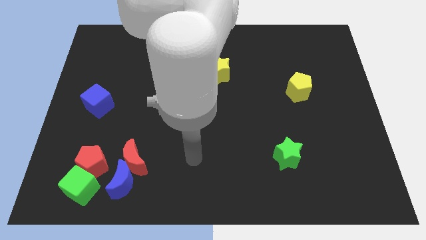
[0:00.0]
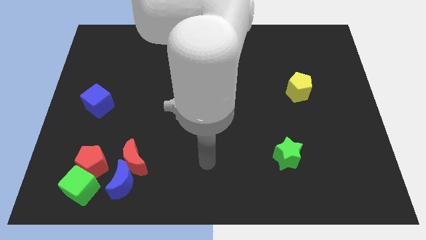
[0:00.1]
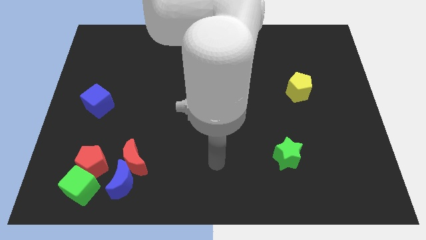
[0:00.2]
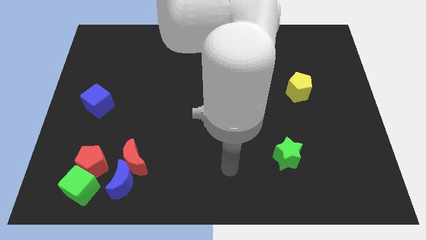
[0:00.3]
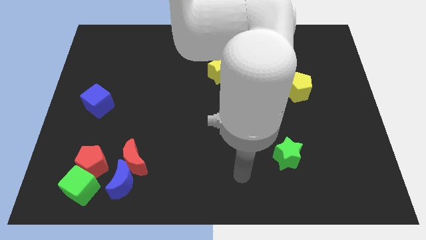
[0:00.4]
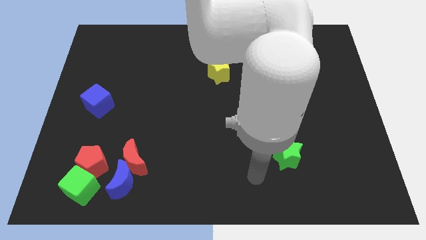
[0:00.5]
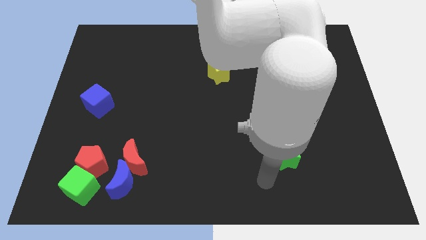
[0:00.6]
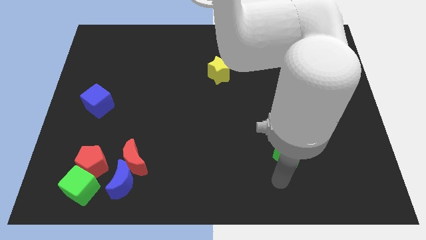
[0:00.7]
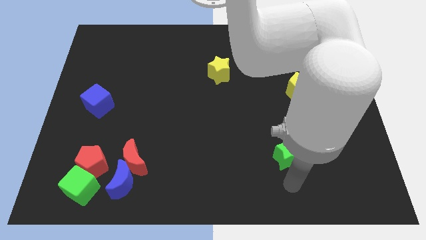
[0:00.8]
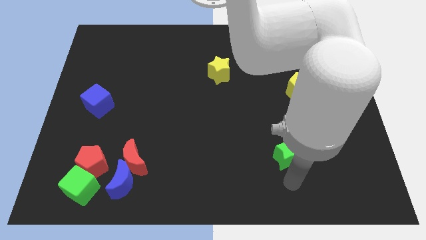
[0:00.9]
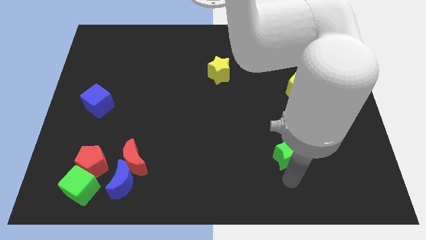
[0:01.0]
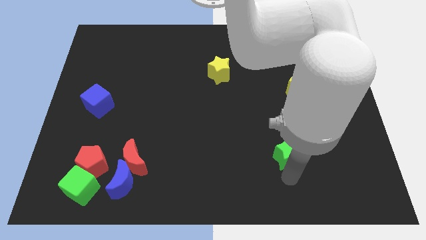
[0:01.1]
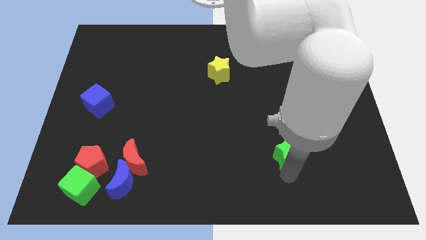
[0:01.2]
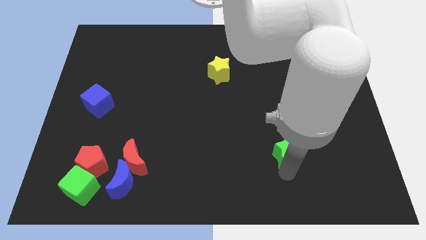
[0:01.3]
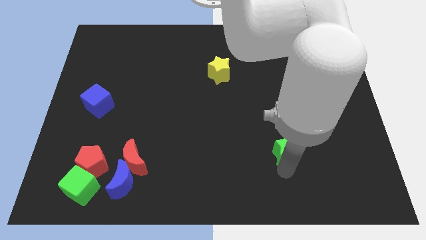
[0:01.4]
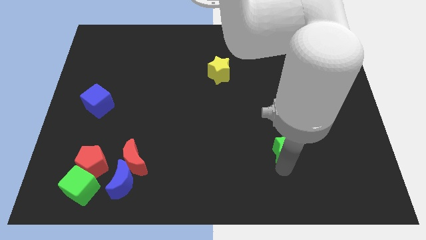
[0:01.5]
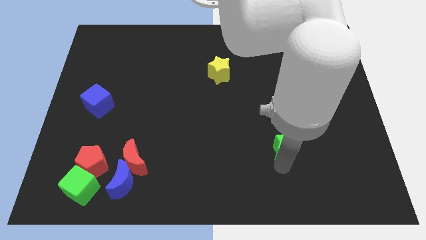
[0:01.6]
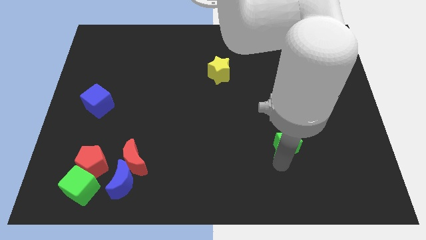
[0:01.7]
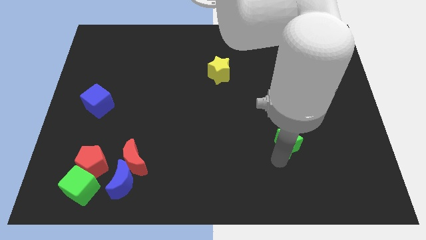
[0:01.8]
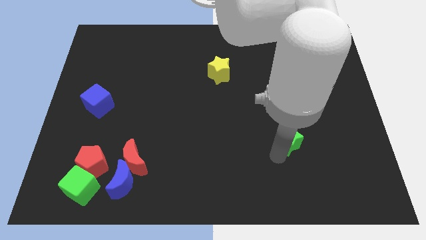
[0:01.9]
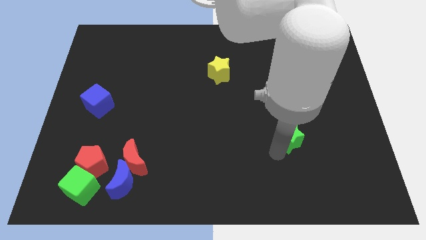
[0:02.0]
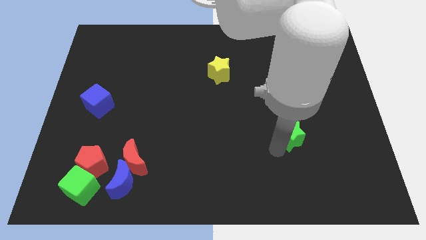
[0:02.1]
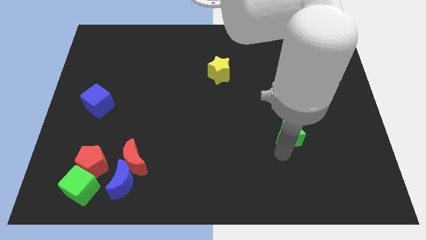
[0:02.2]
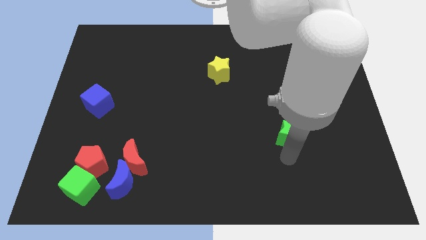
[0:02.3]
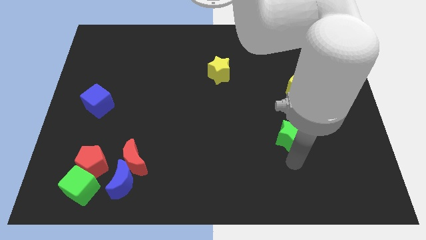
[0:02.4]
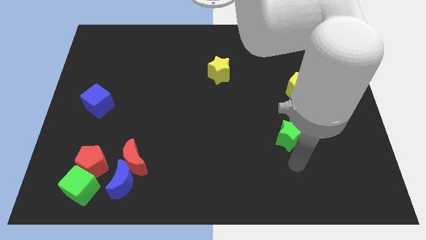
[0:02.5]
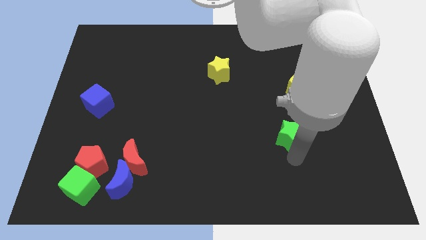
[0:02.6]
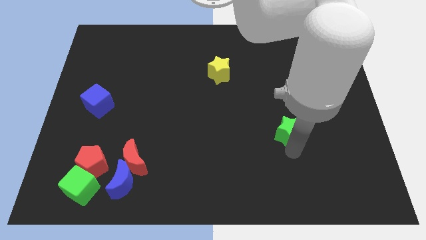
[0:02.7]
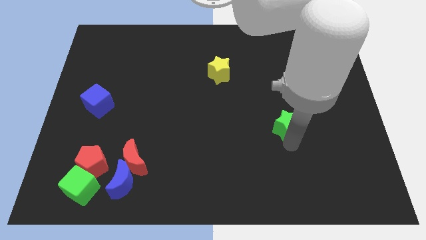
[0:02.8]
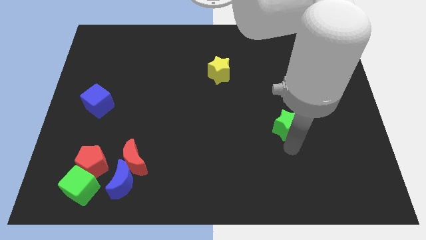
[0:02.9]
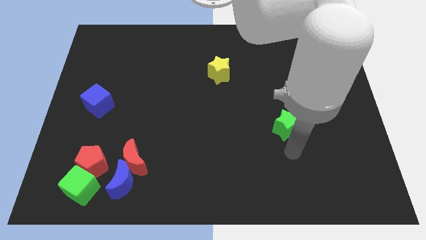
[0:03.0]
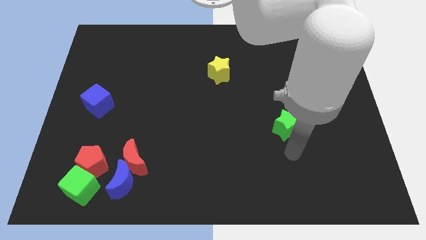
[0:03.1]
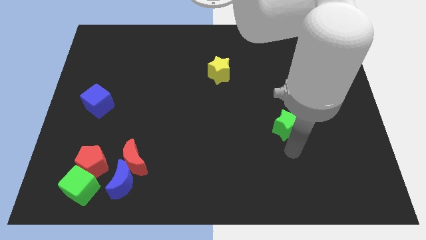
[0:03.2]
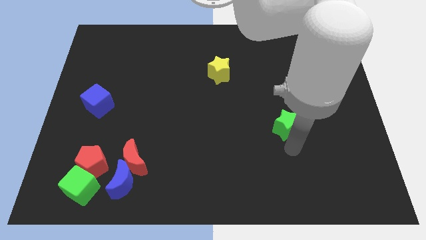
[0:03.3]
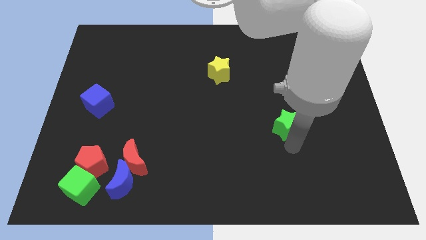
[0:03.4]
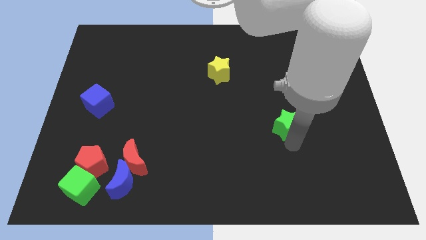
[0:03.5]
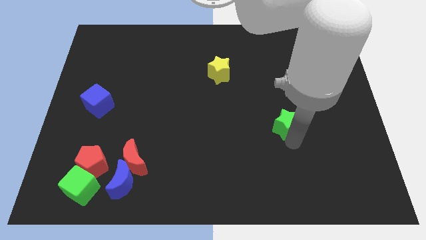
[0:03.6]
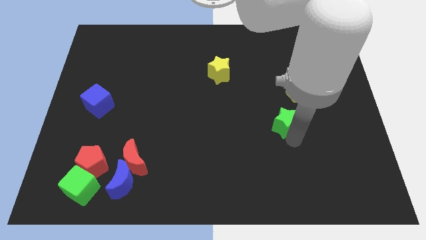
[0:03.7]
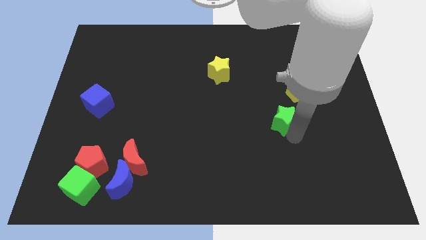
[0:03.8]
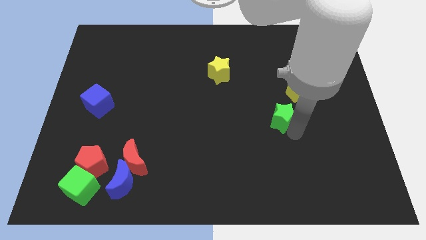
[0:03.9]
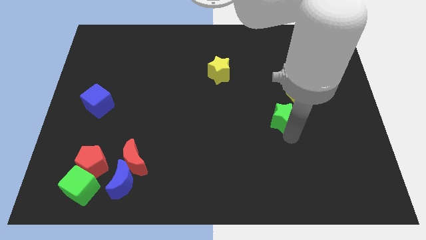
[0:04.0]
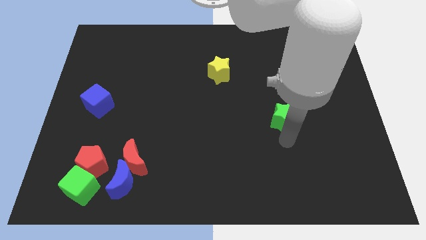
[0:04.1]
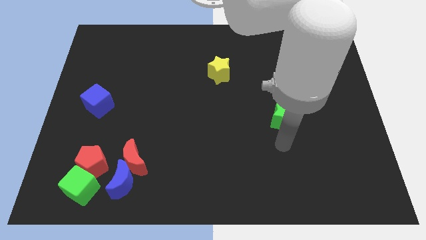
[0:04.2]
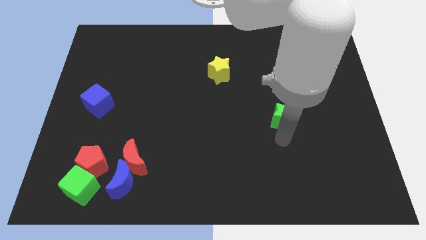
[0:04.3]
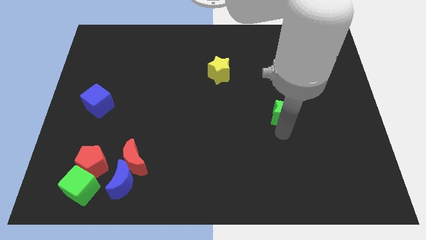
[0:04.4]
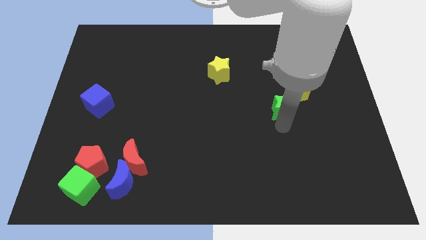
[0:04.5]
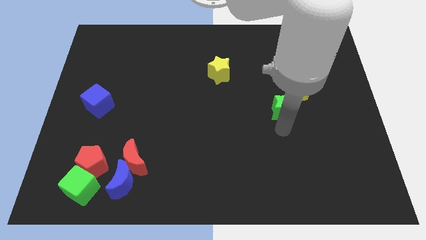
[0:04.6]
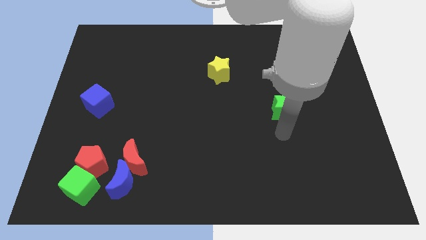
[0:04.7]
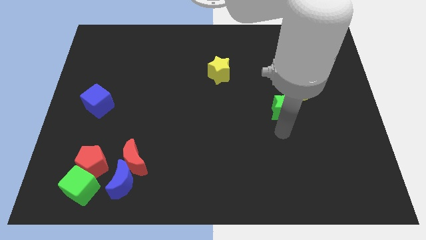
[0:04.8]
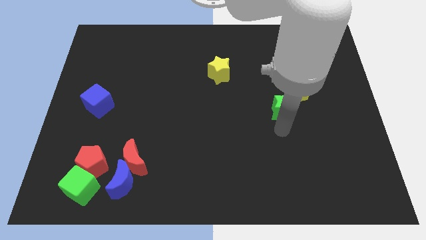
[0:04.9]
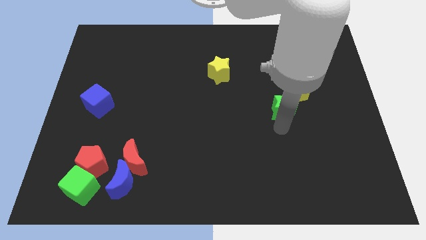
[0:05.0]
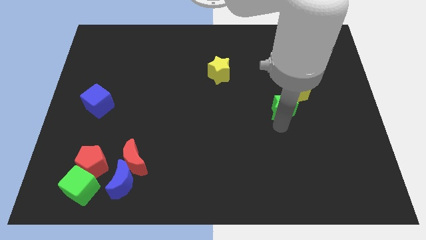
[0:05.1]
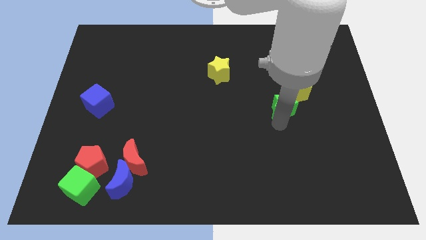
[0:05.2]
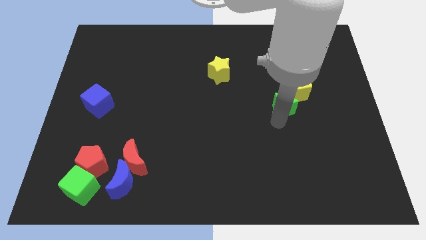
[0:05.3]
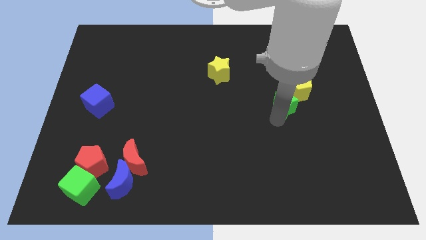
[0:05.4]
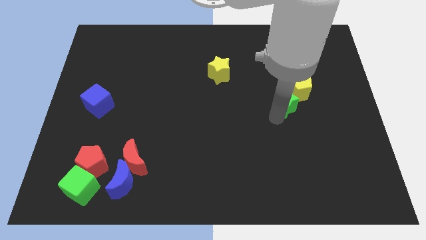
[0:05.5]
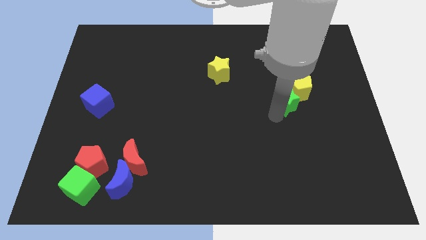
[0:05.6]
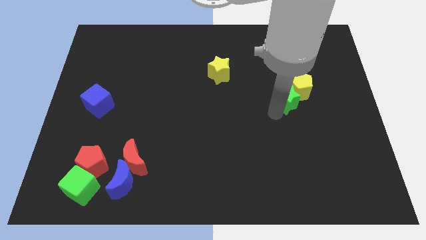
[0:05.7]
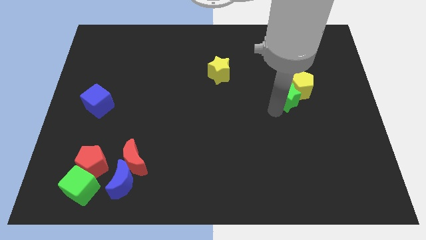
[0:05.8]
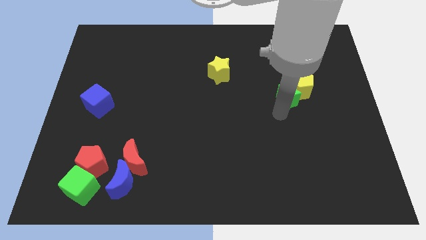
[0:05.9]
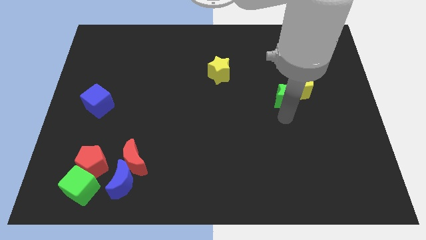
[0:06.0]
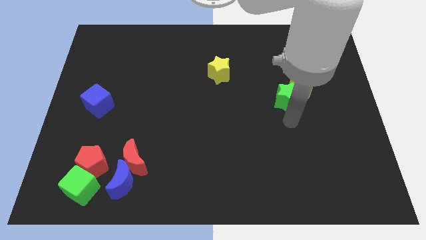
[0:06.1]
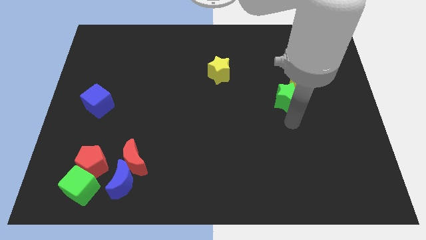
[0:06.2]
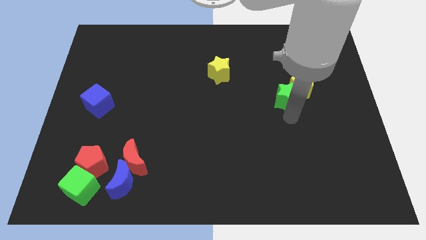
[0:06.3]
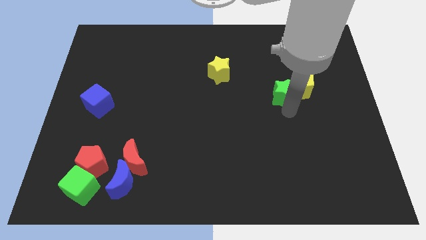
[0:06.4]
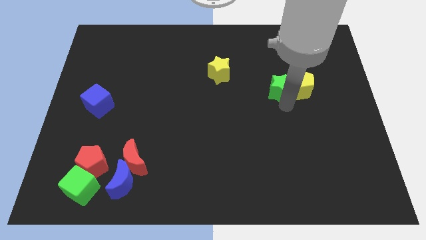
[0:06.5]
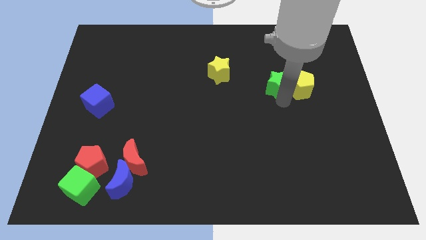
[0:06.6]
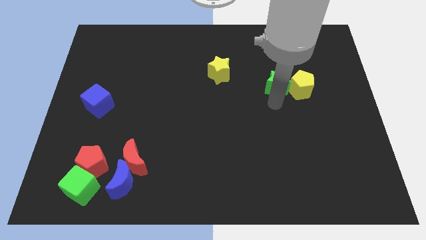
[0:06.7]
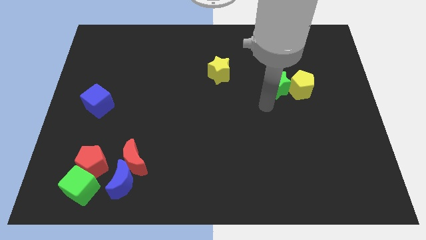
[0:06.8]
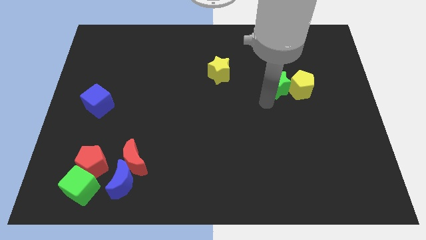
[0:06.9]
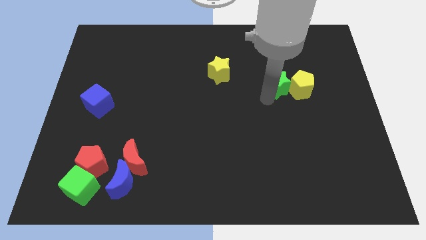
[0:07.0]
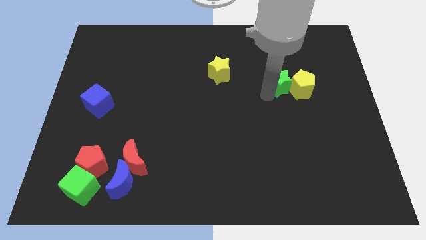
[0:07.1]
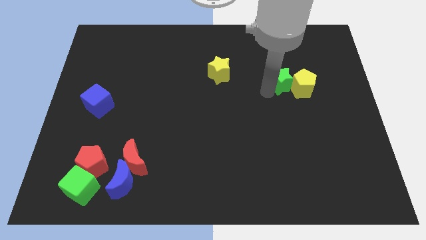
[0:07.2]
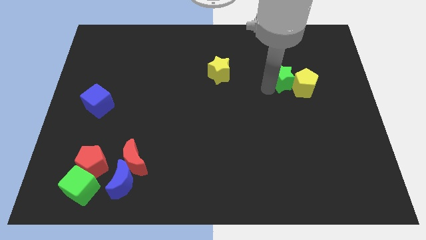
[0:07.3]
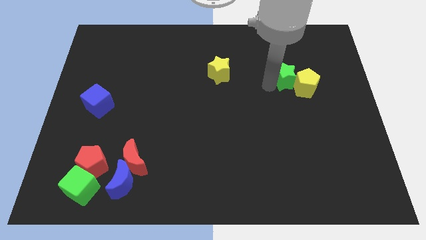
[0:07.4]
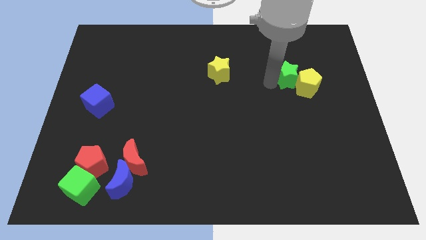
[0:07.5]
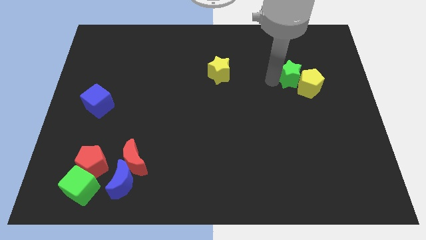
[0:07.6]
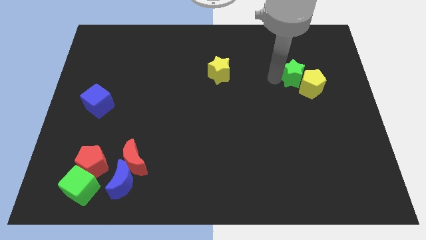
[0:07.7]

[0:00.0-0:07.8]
slide the green star above the yellow pentagon

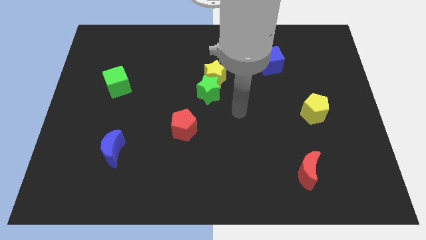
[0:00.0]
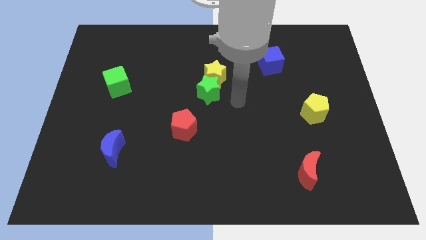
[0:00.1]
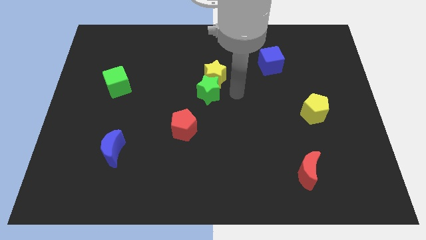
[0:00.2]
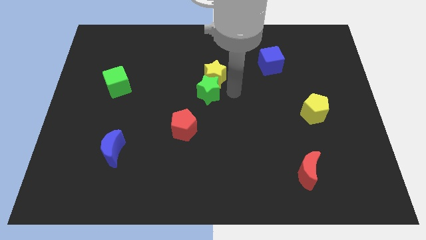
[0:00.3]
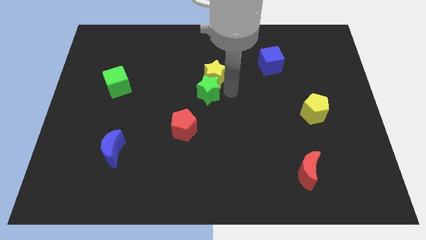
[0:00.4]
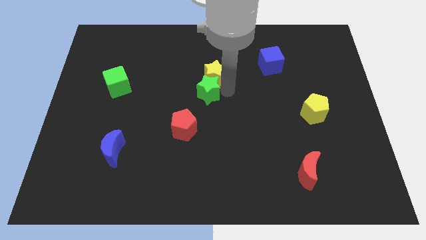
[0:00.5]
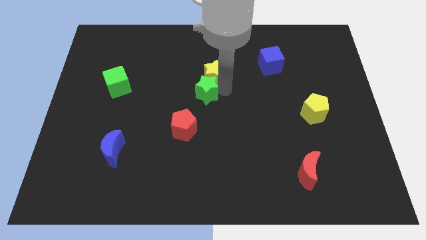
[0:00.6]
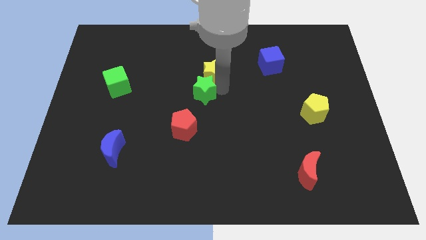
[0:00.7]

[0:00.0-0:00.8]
slide the green star above the red pentagon
